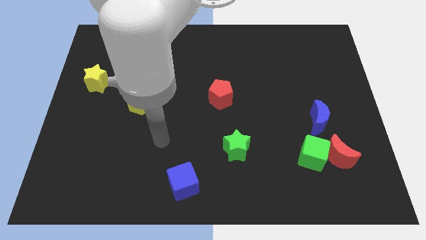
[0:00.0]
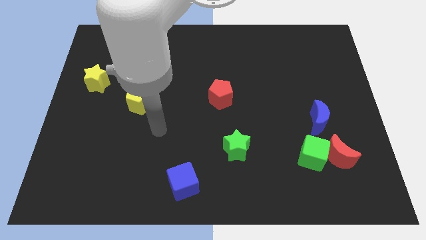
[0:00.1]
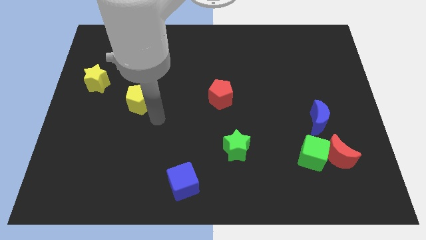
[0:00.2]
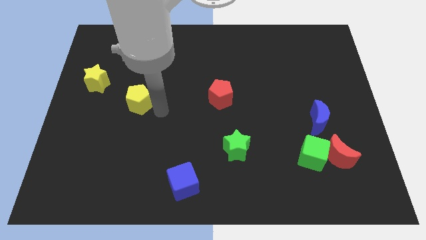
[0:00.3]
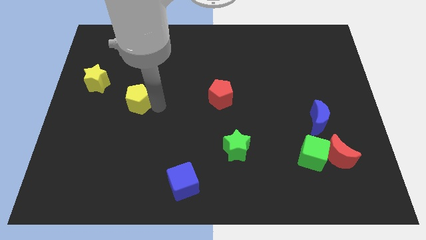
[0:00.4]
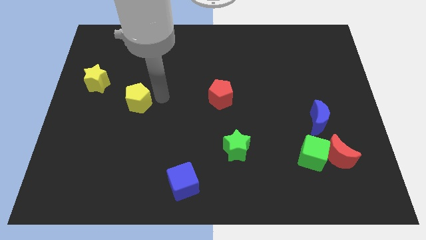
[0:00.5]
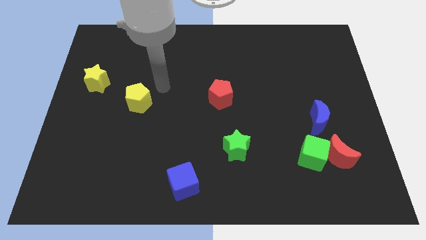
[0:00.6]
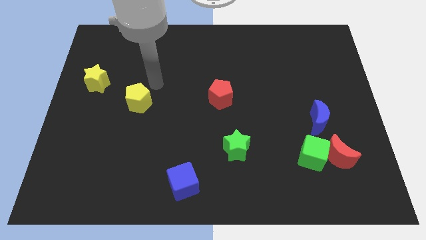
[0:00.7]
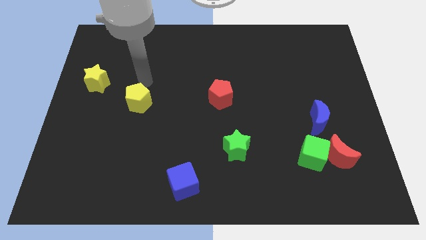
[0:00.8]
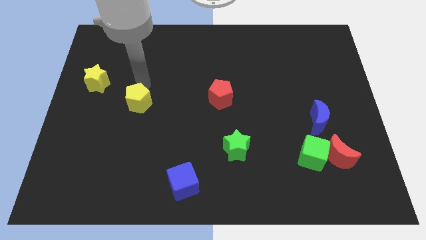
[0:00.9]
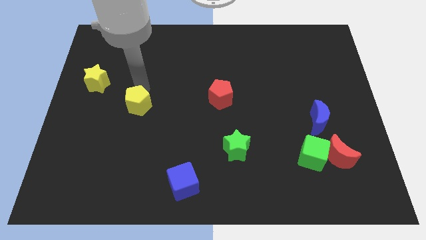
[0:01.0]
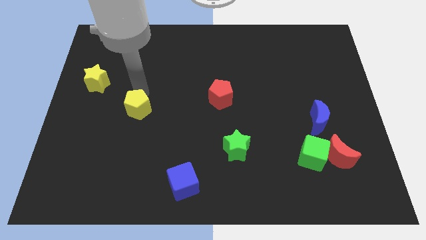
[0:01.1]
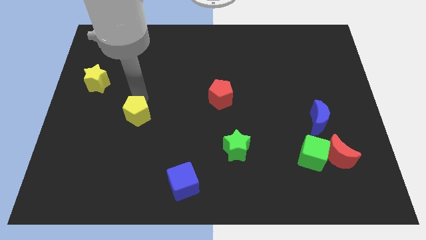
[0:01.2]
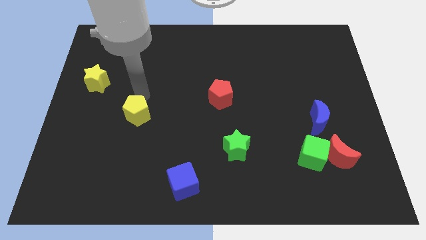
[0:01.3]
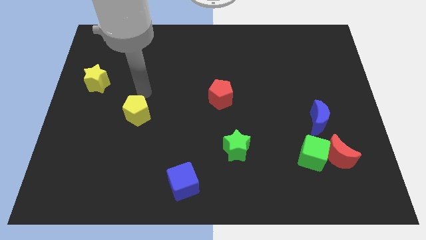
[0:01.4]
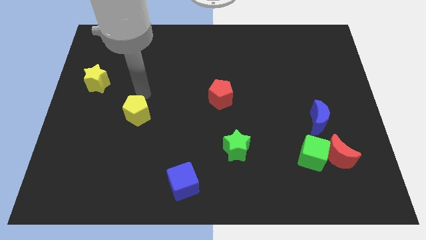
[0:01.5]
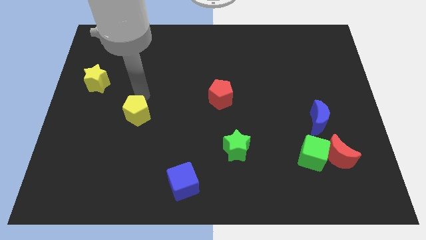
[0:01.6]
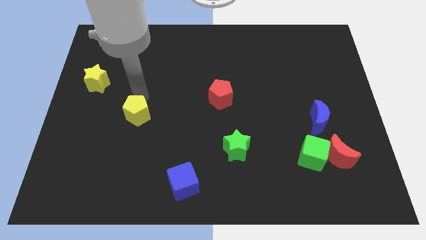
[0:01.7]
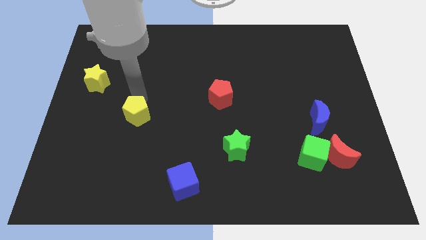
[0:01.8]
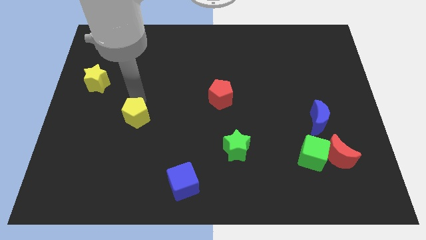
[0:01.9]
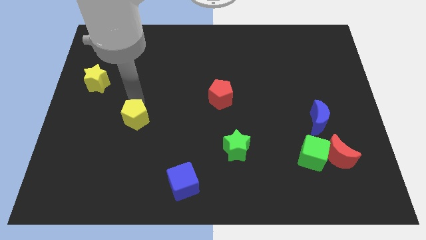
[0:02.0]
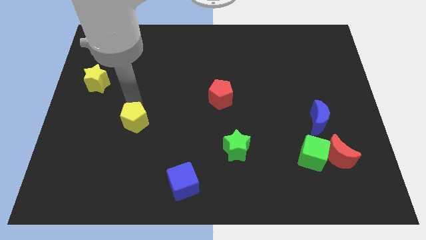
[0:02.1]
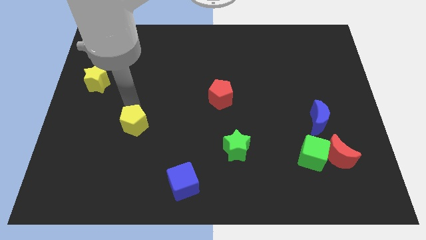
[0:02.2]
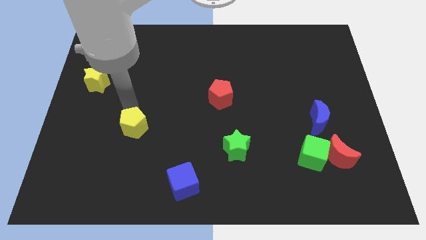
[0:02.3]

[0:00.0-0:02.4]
move the yellow pentagon down slightly

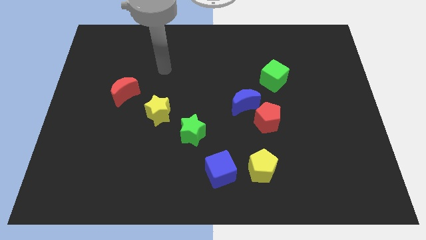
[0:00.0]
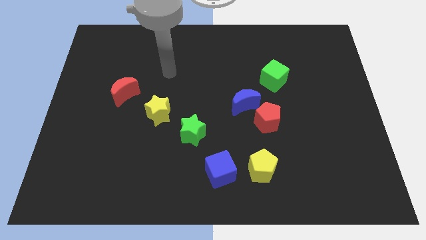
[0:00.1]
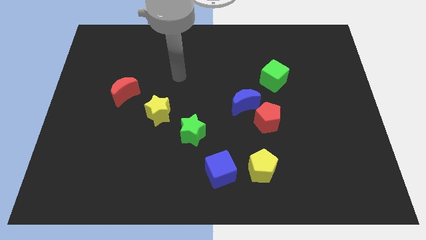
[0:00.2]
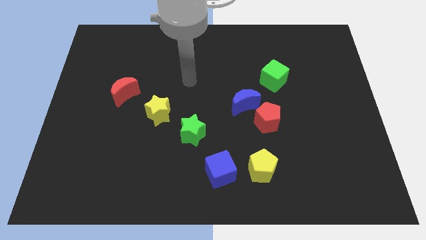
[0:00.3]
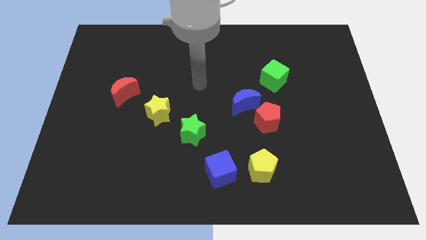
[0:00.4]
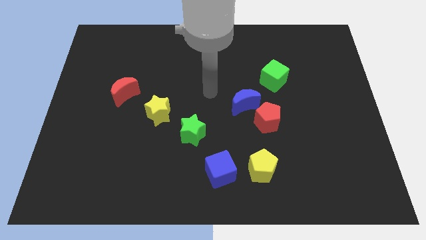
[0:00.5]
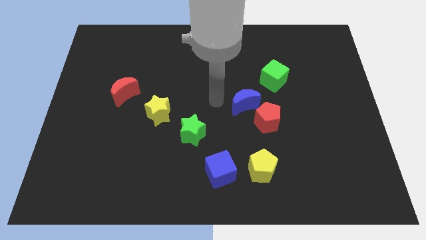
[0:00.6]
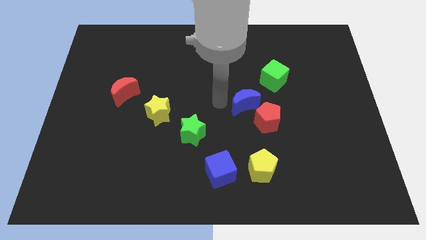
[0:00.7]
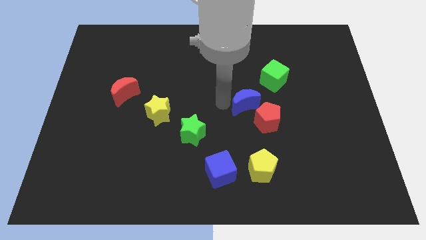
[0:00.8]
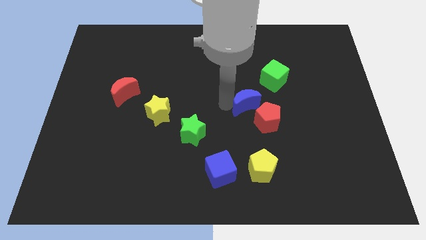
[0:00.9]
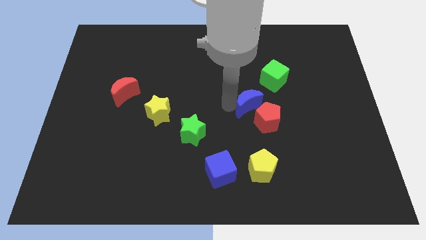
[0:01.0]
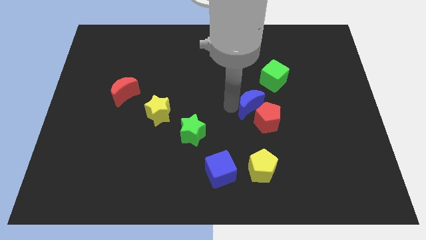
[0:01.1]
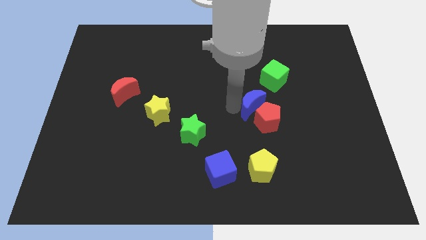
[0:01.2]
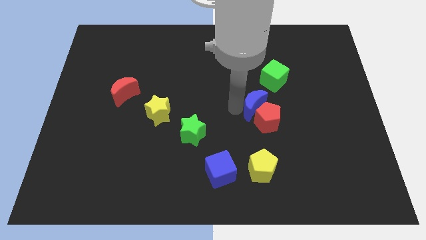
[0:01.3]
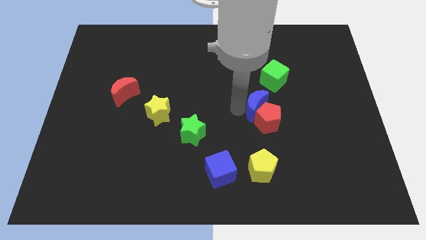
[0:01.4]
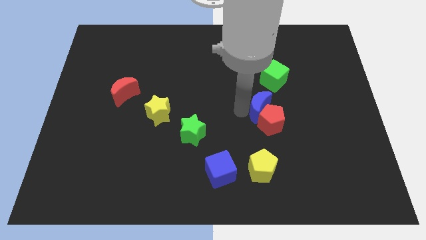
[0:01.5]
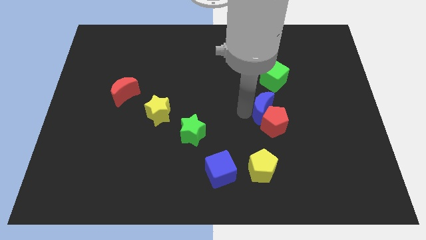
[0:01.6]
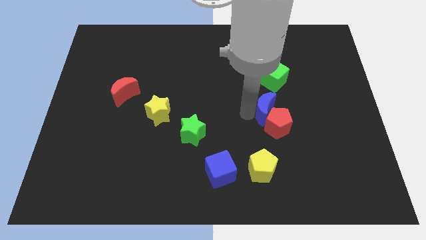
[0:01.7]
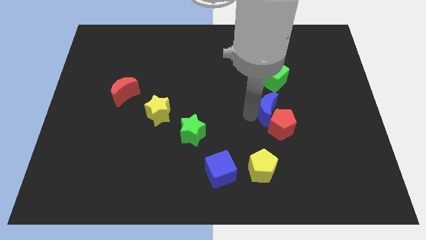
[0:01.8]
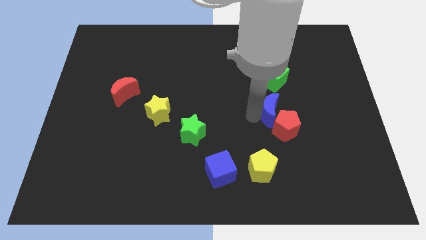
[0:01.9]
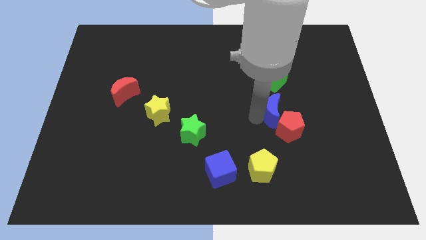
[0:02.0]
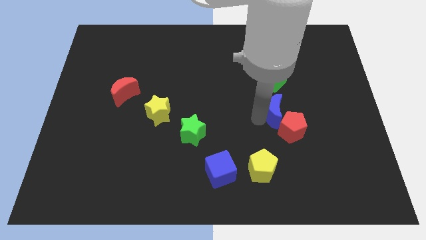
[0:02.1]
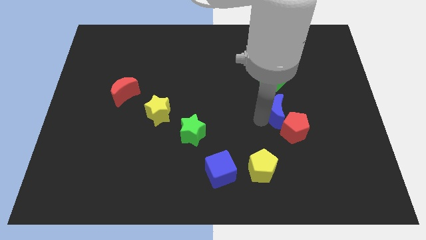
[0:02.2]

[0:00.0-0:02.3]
push the blue moon right a bit

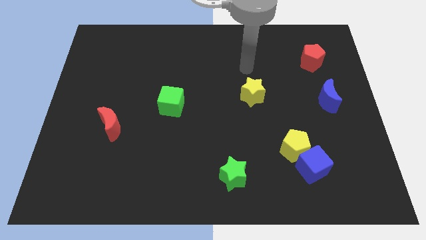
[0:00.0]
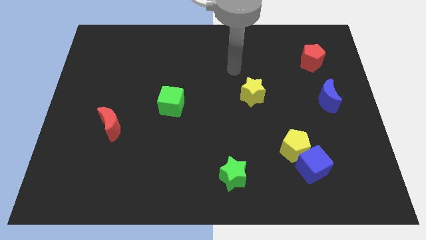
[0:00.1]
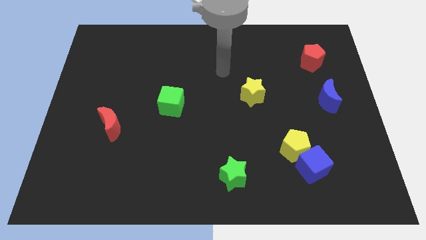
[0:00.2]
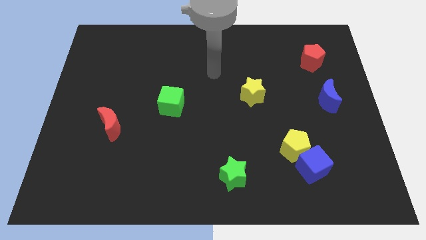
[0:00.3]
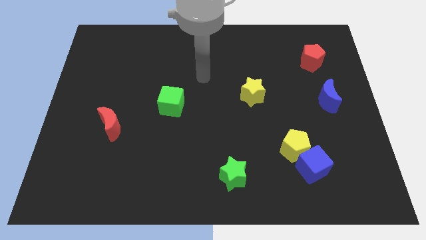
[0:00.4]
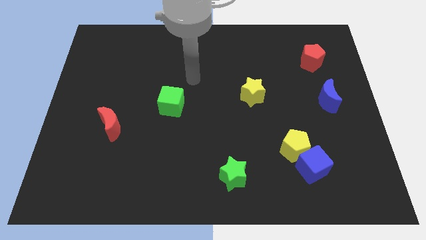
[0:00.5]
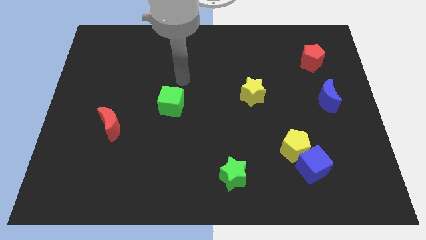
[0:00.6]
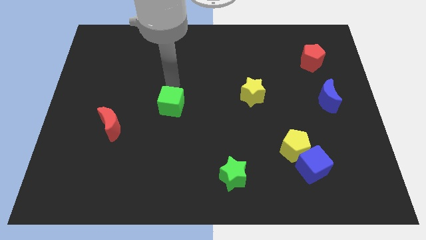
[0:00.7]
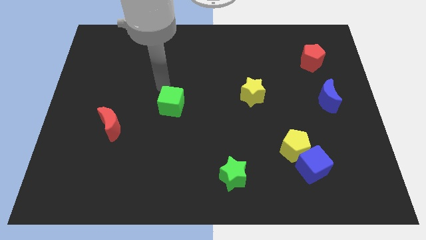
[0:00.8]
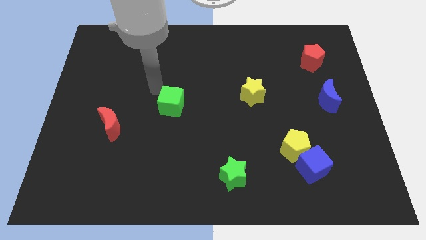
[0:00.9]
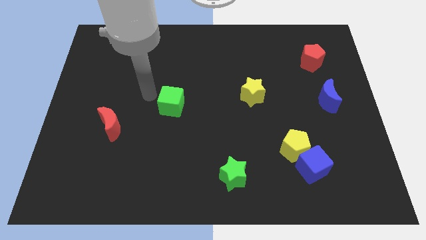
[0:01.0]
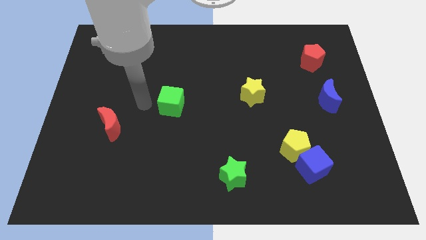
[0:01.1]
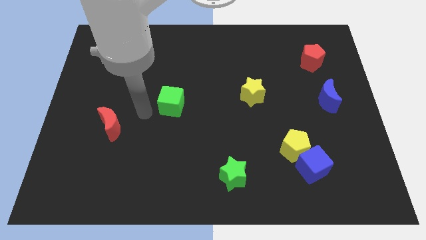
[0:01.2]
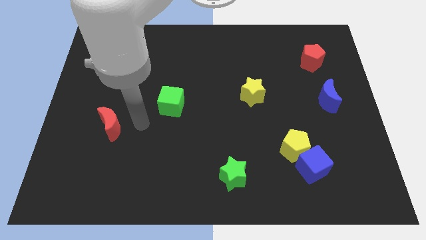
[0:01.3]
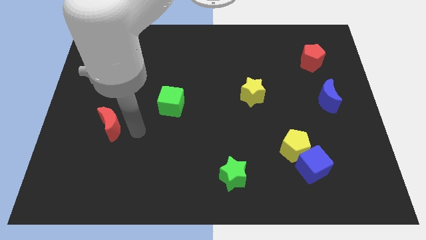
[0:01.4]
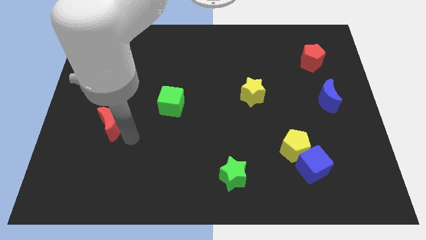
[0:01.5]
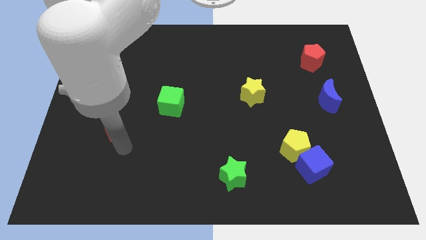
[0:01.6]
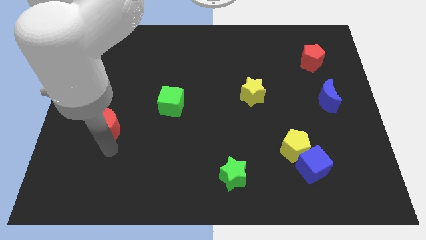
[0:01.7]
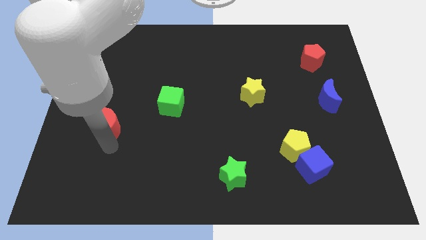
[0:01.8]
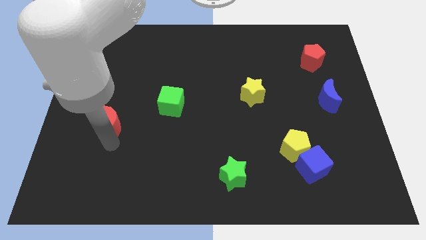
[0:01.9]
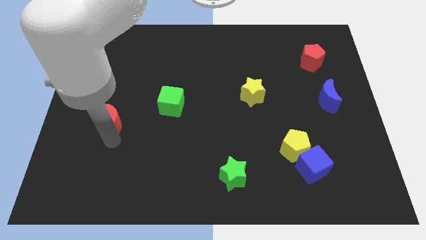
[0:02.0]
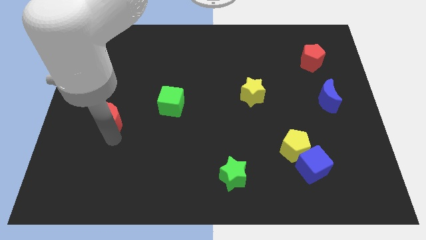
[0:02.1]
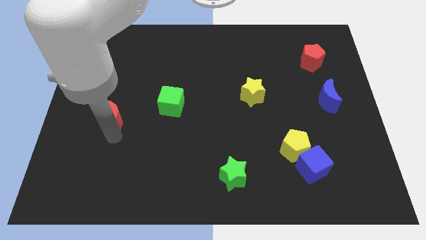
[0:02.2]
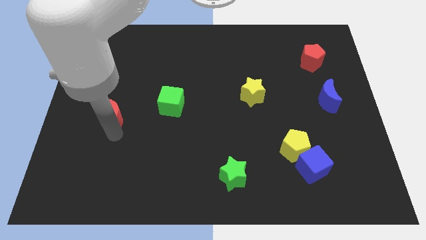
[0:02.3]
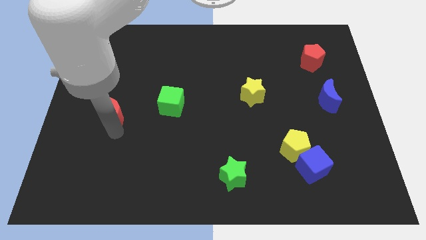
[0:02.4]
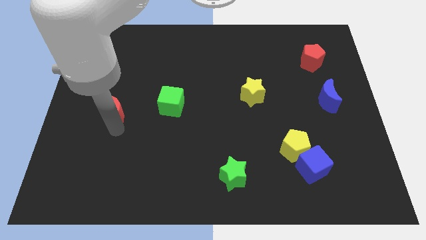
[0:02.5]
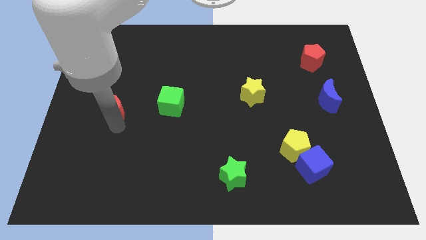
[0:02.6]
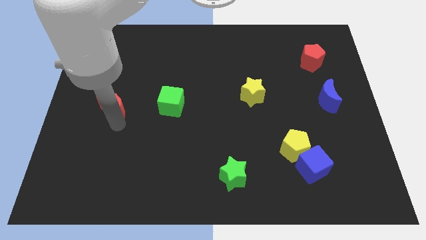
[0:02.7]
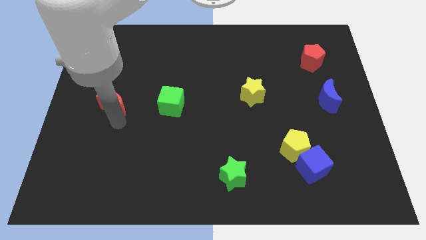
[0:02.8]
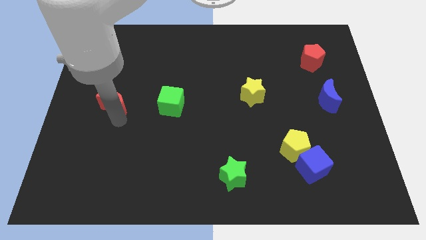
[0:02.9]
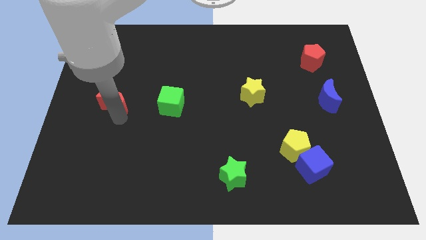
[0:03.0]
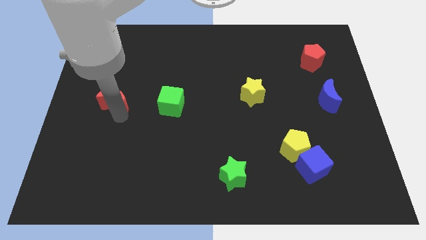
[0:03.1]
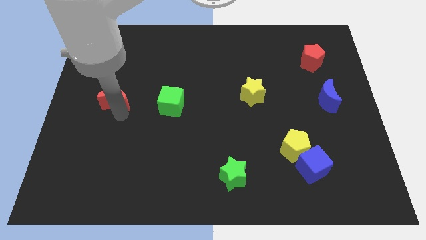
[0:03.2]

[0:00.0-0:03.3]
move the red moon slightly up
